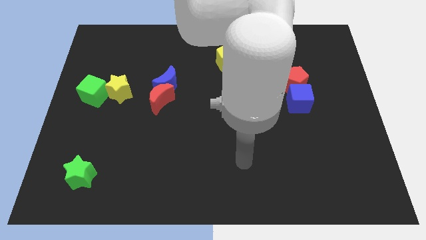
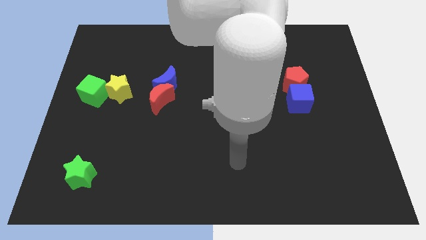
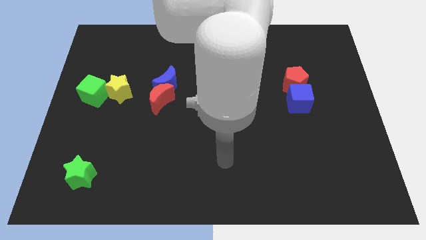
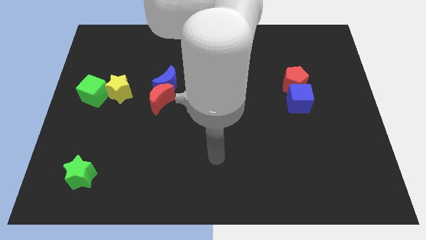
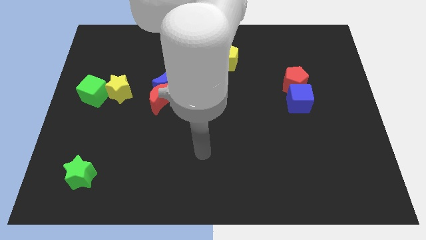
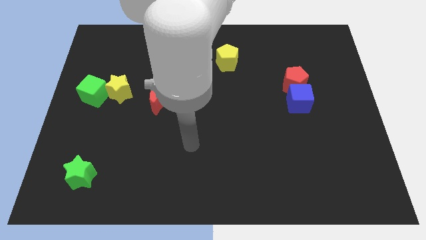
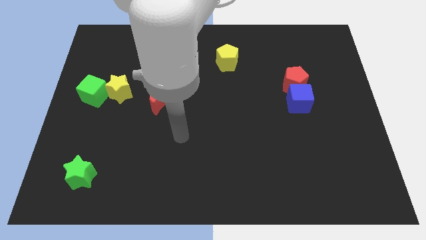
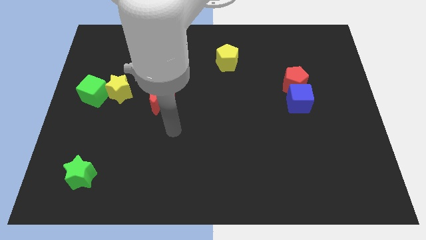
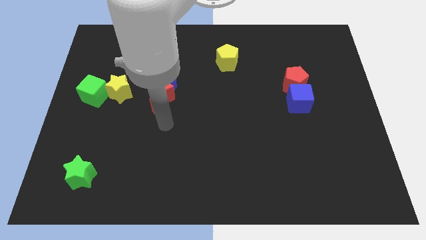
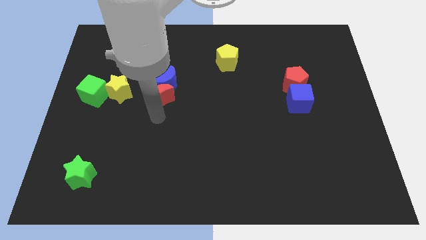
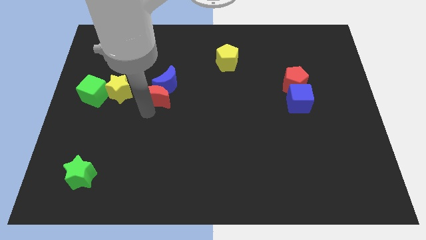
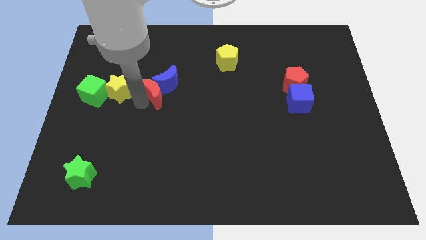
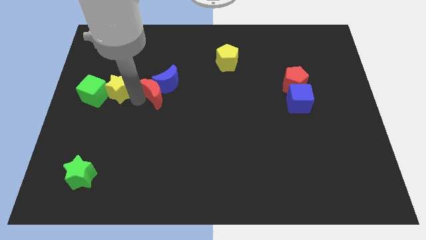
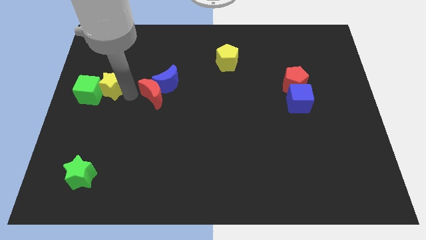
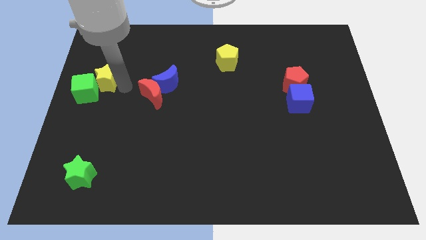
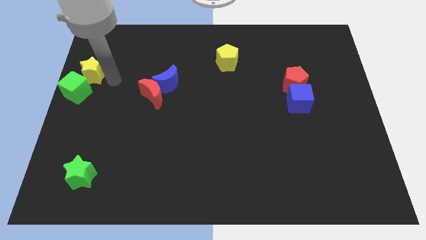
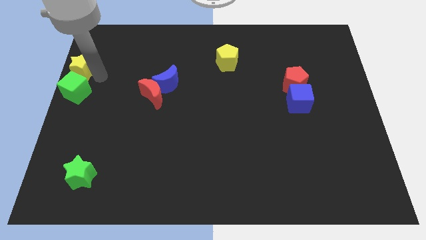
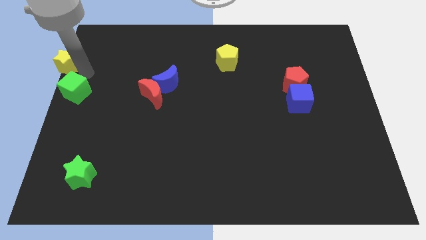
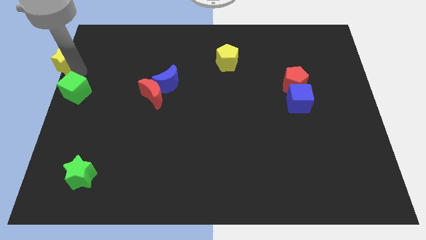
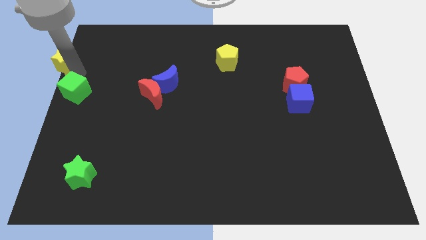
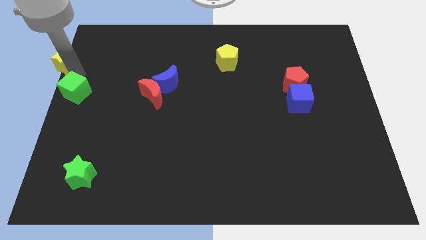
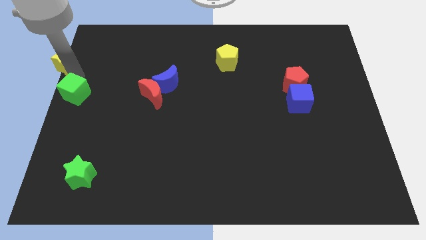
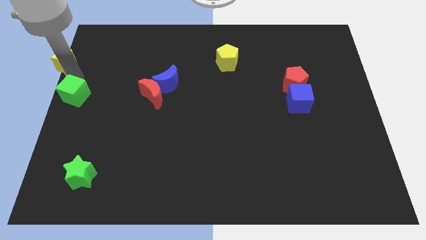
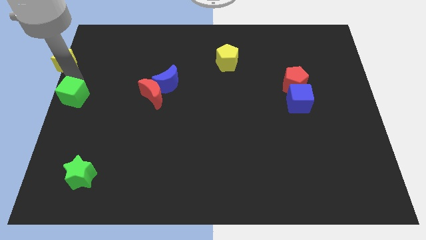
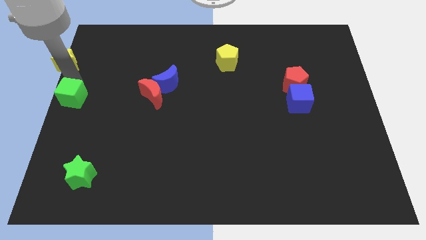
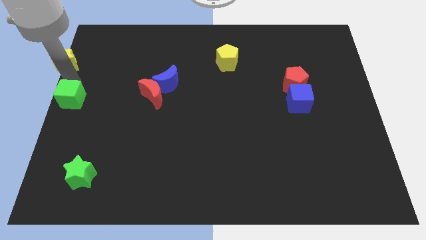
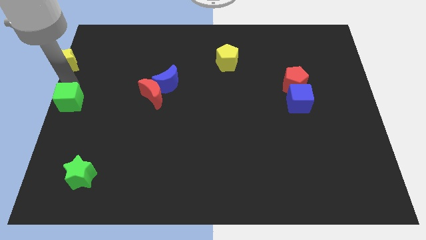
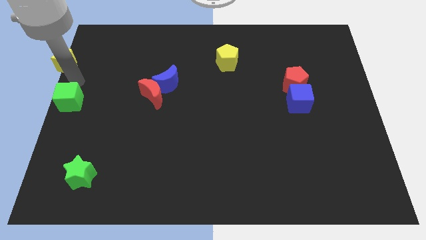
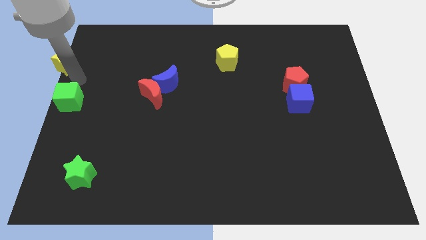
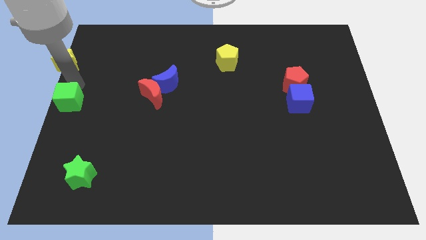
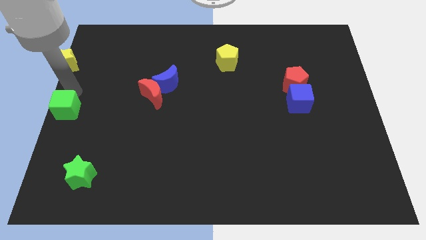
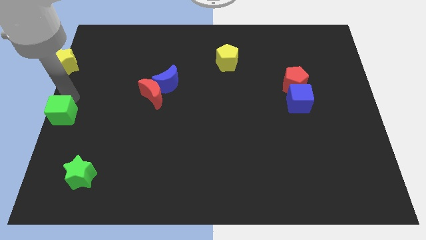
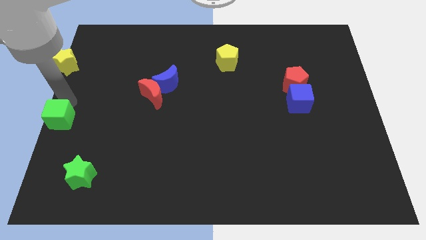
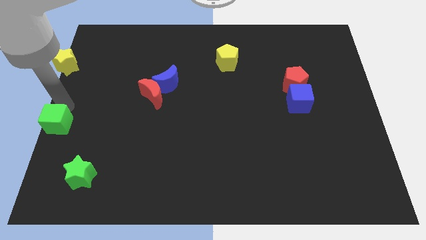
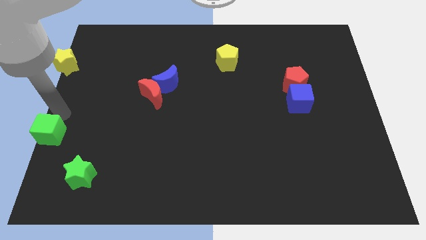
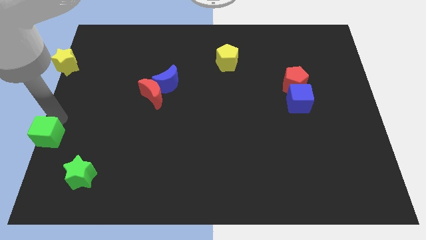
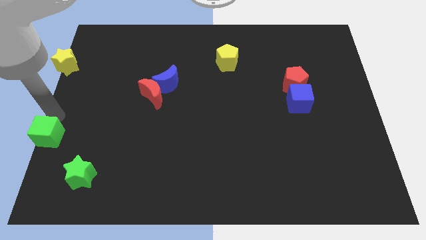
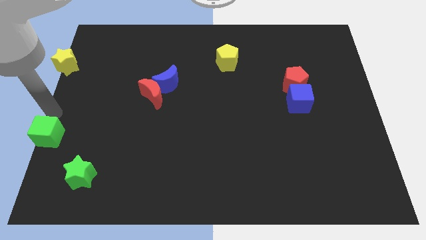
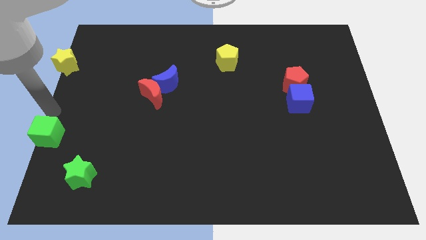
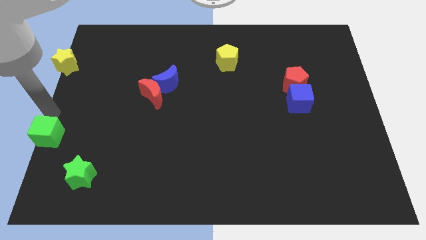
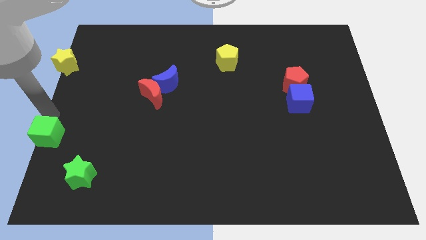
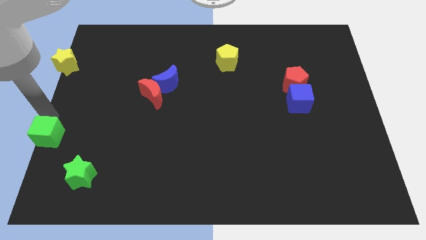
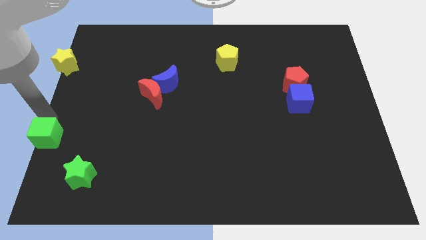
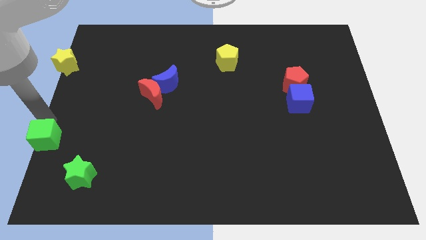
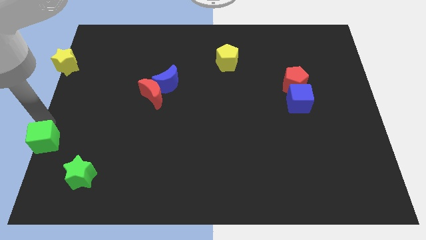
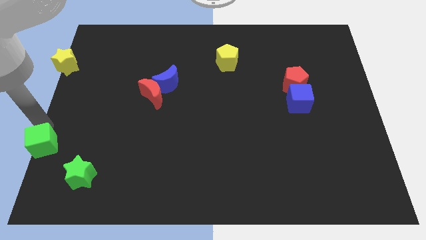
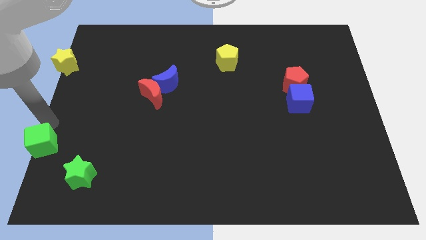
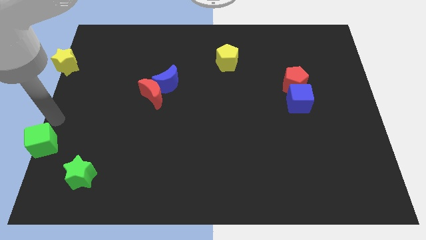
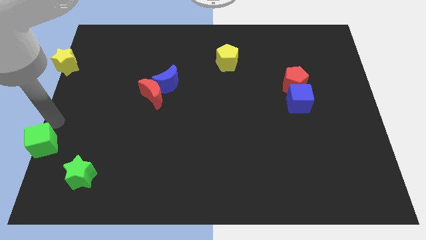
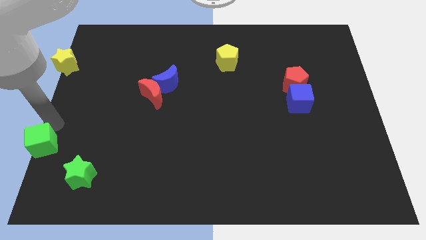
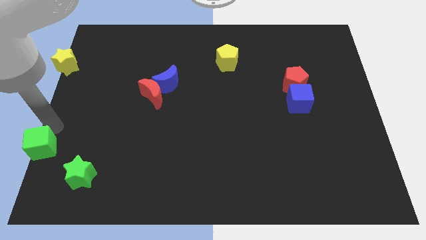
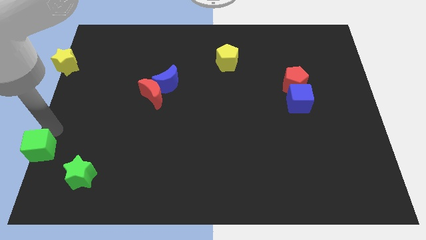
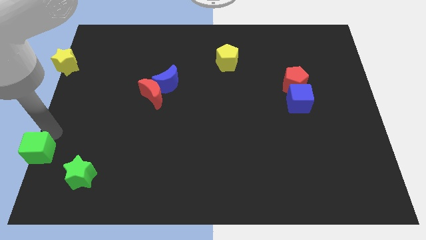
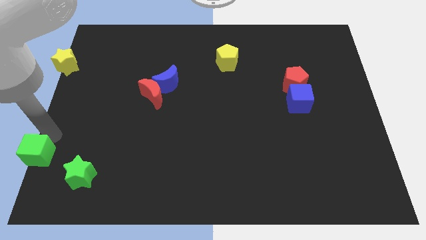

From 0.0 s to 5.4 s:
put the green cube to the bottom left of the board

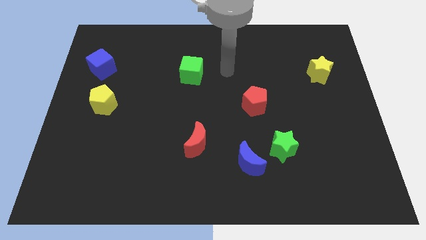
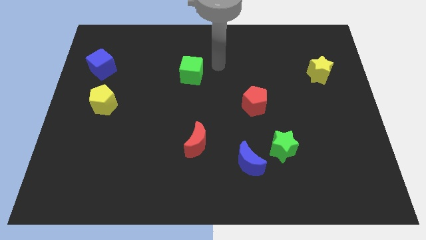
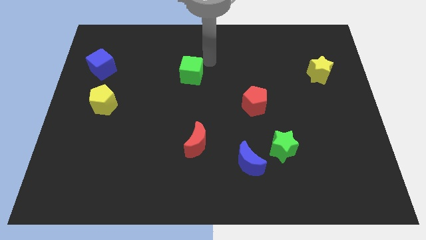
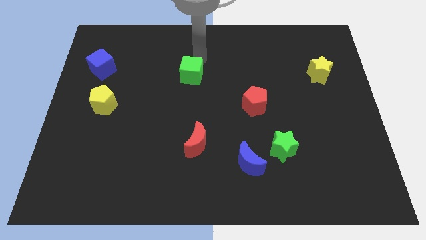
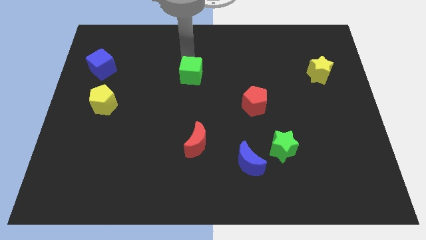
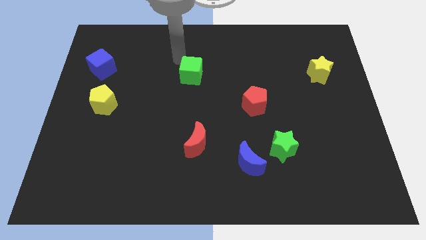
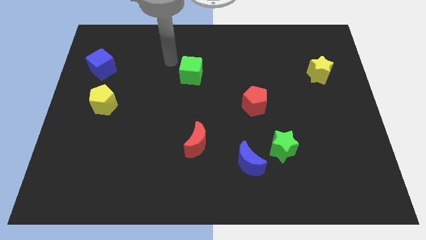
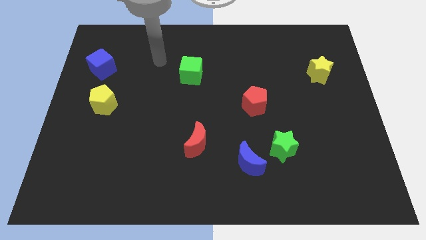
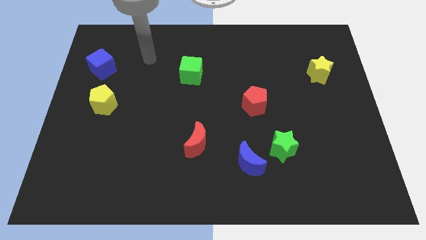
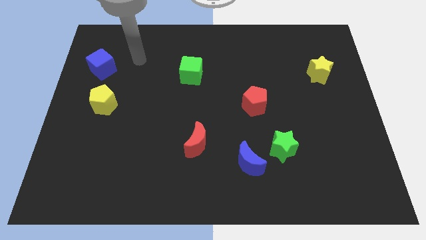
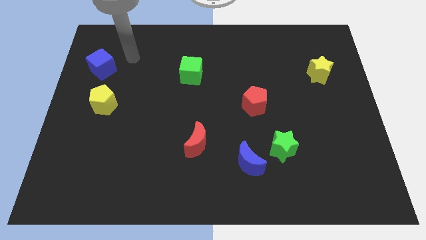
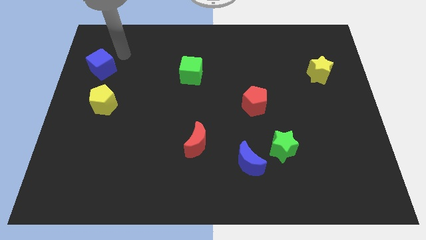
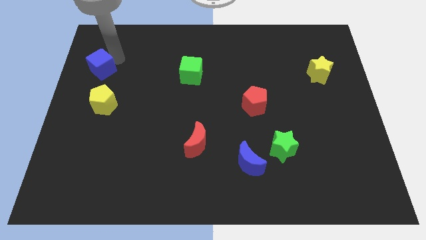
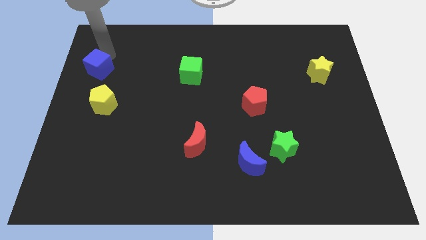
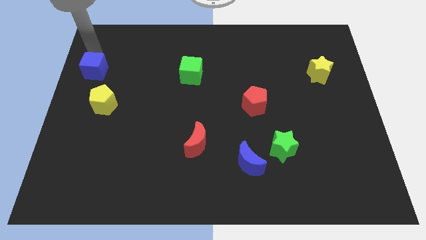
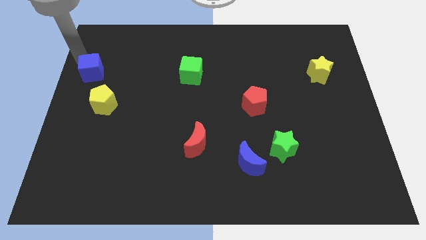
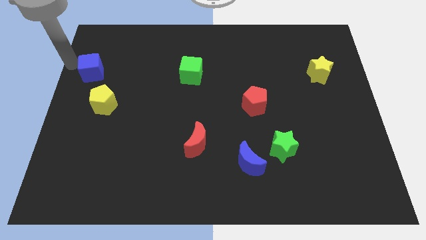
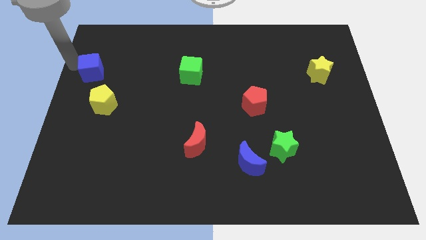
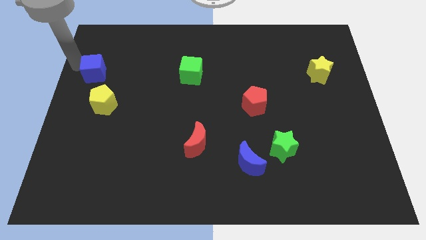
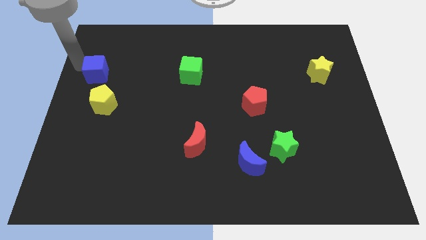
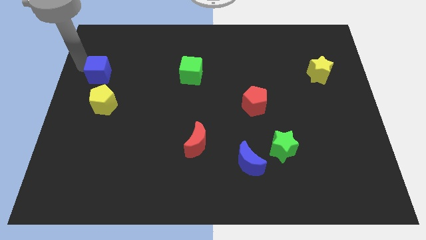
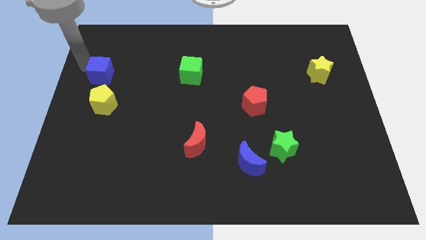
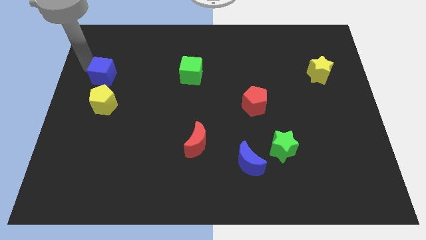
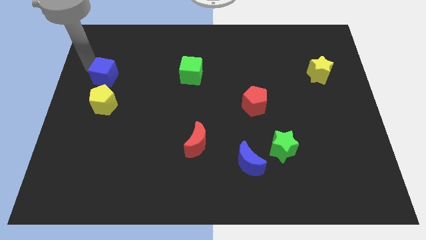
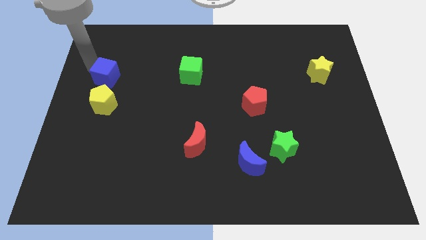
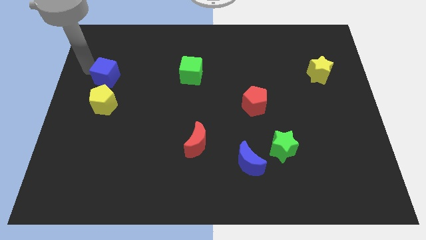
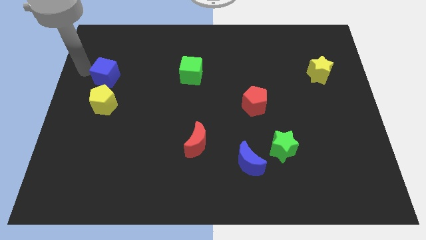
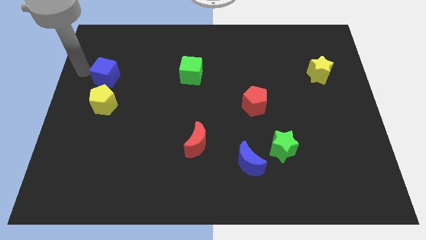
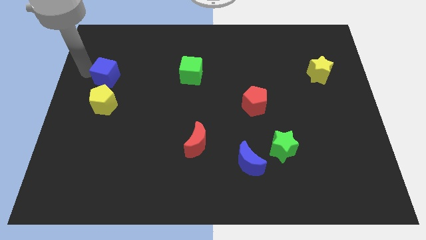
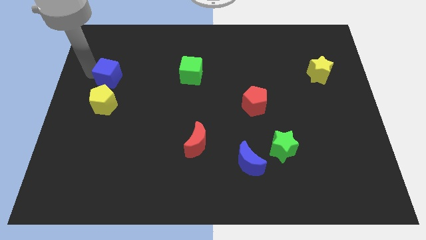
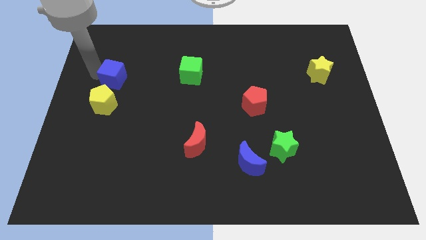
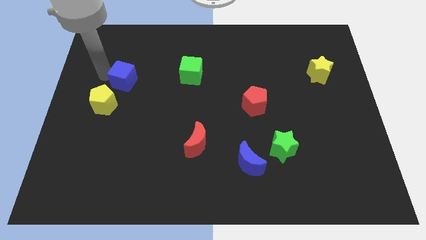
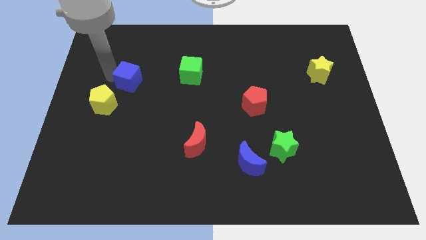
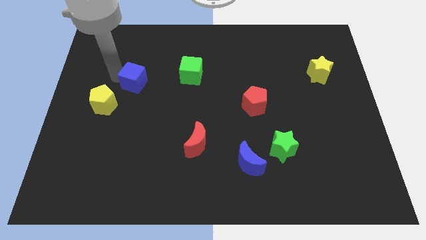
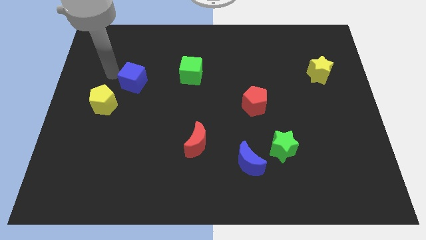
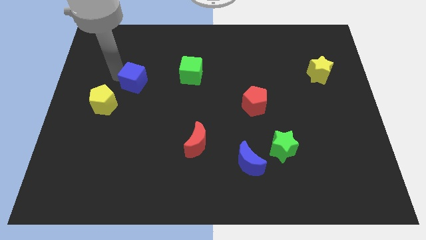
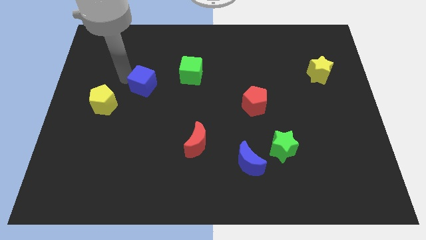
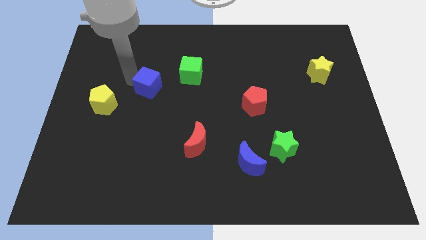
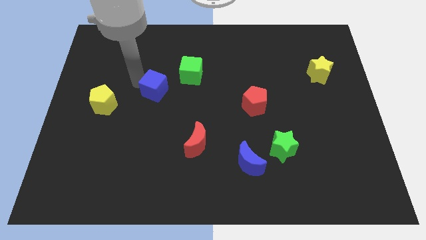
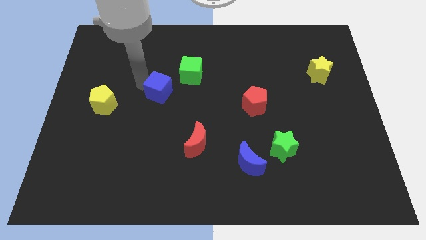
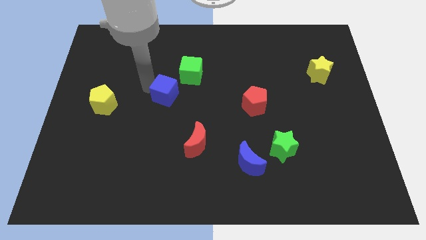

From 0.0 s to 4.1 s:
put the blue cube to the middle
